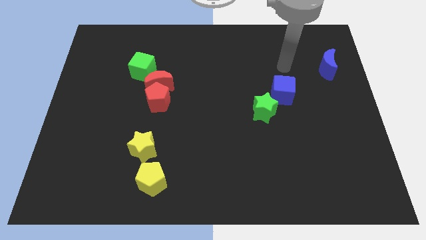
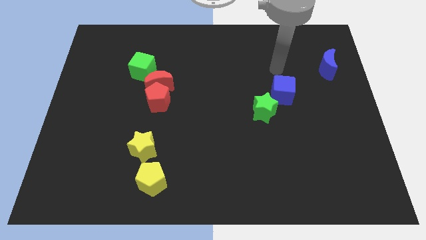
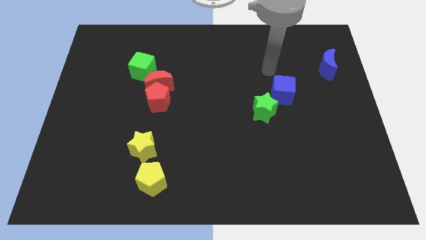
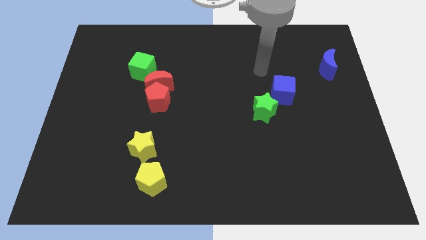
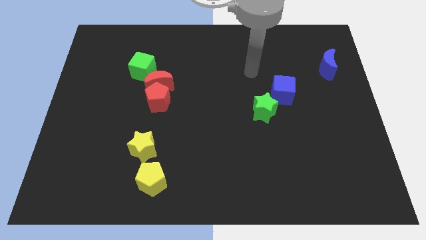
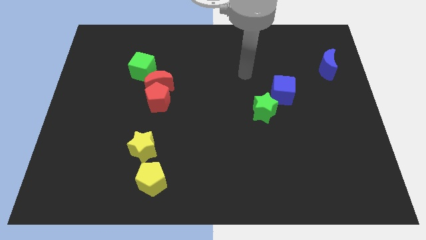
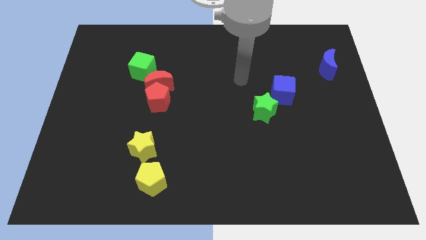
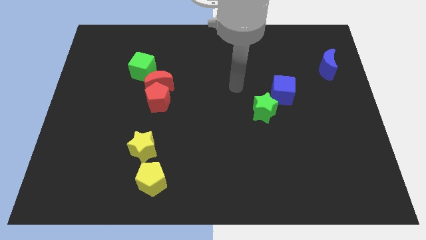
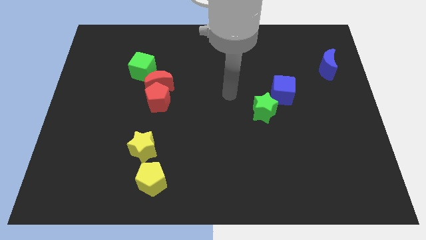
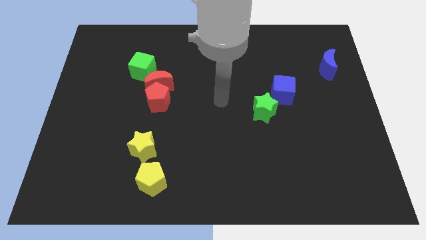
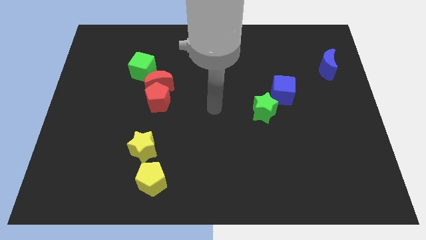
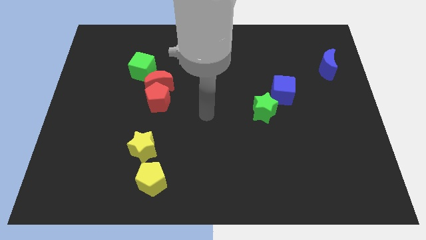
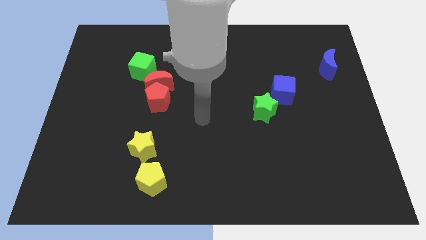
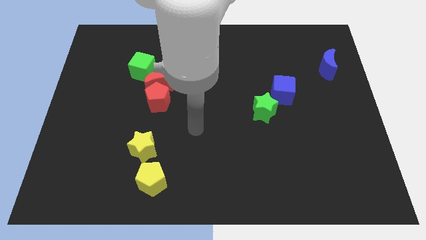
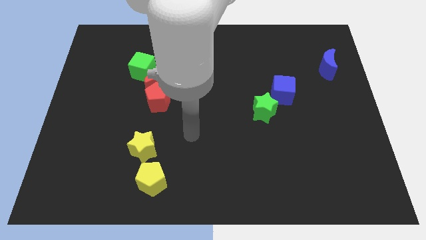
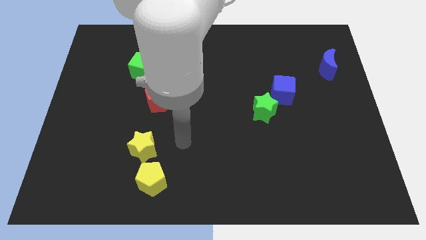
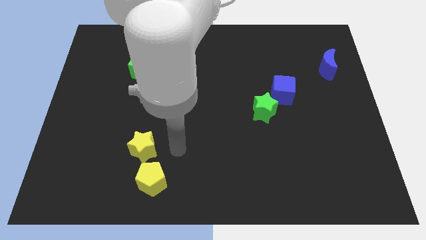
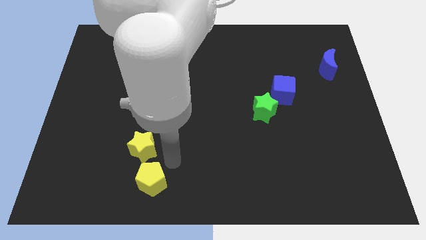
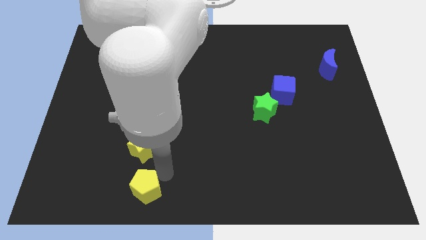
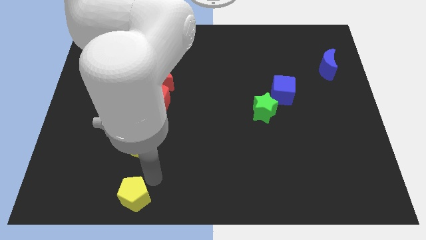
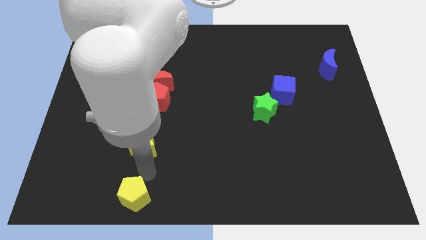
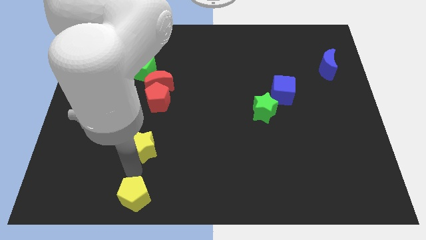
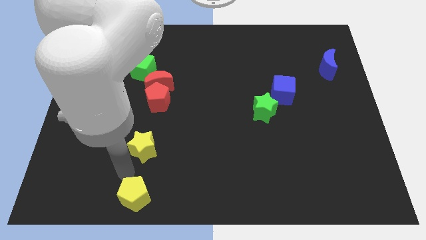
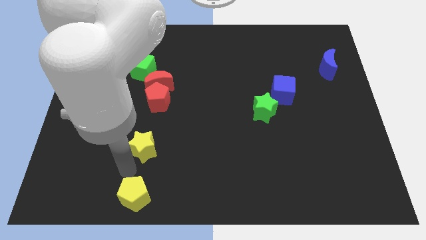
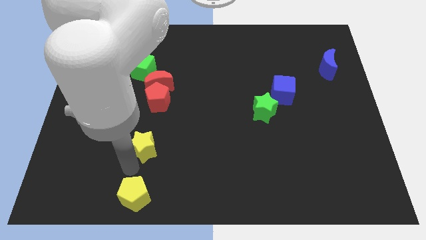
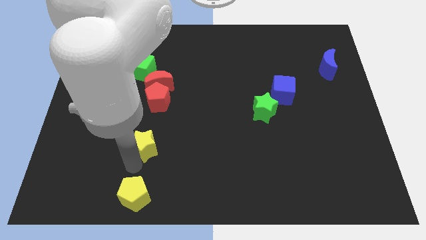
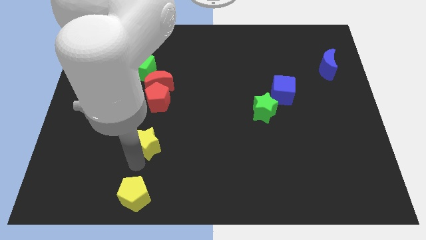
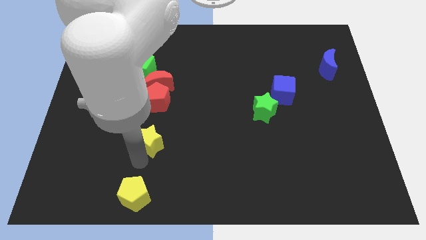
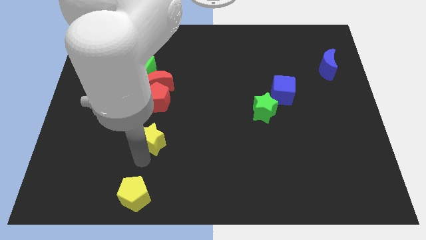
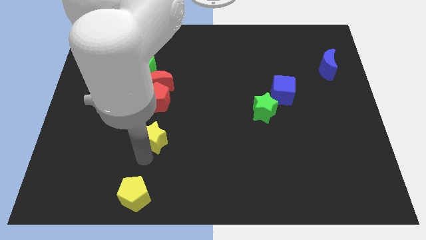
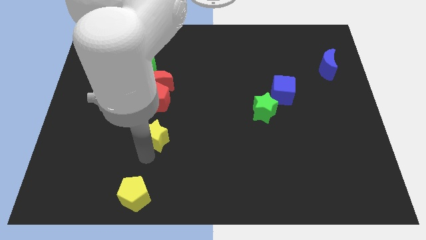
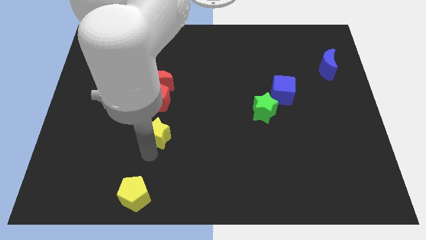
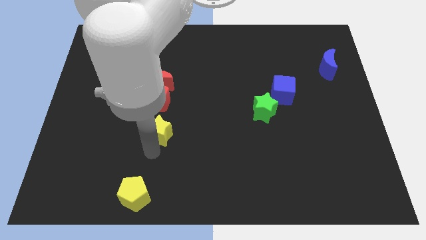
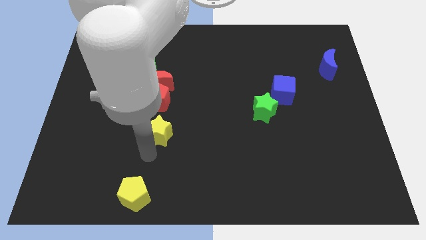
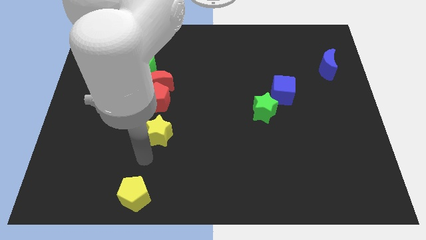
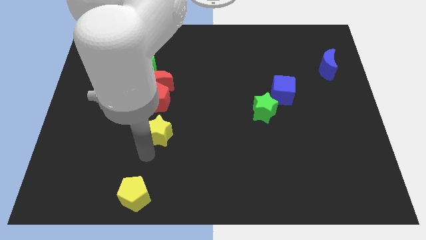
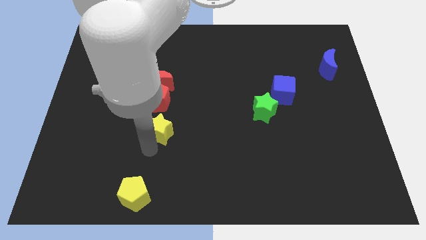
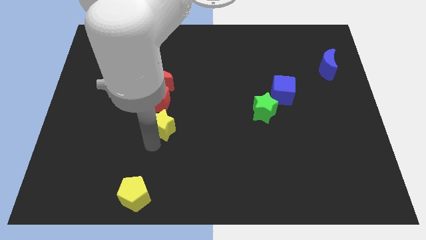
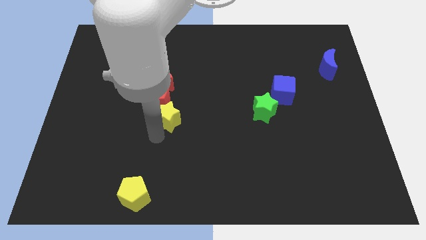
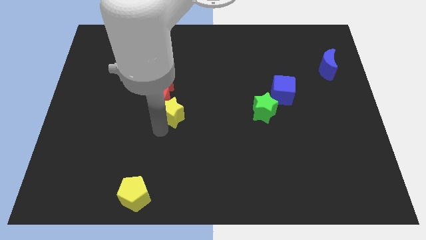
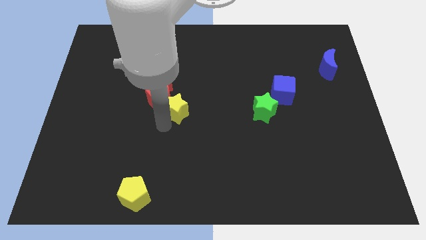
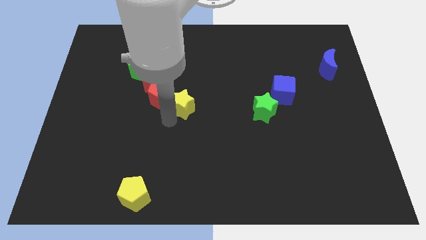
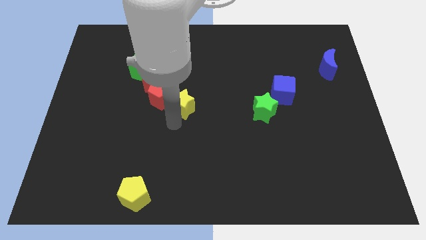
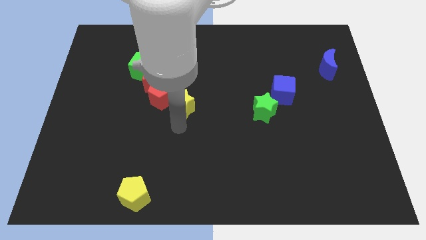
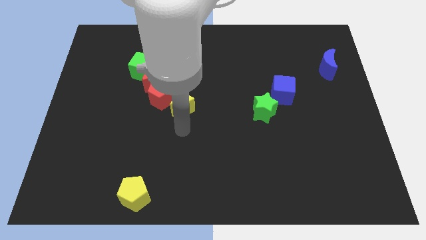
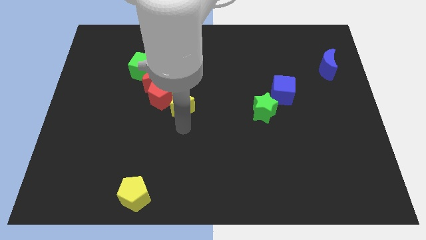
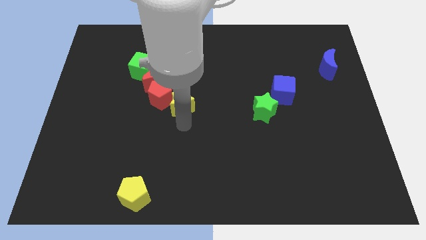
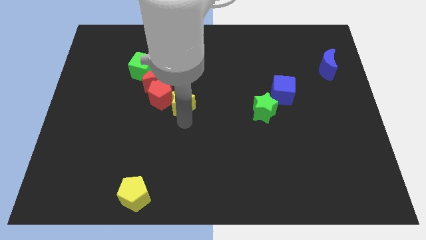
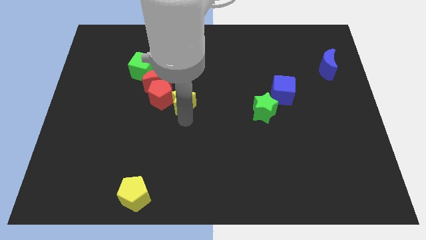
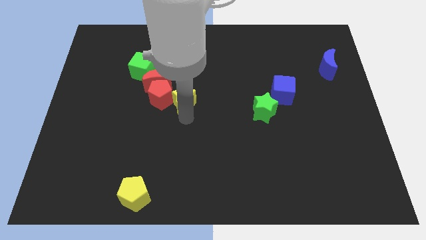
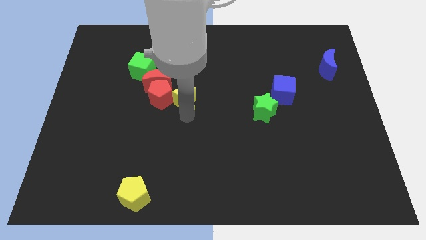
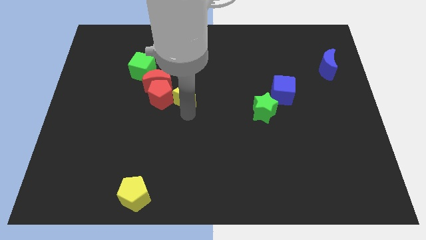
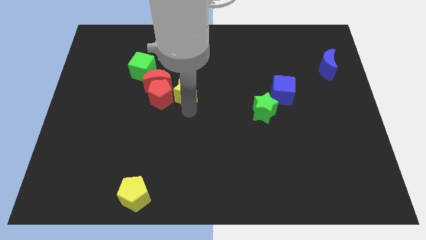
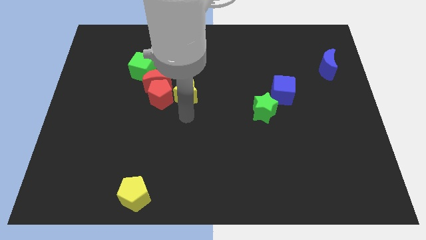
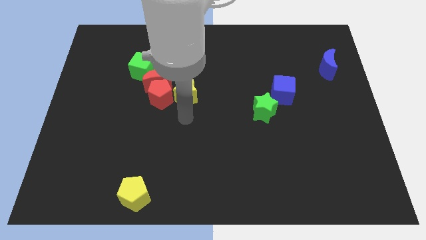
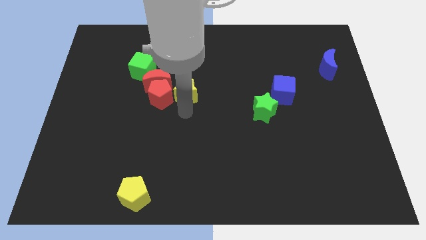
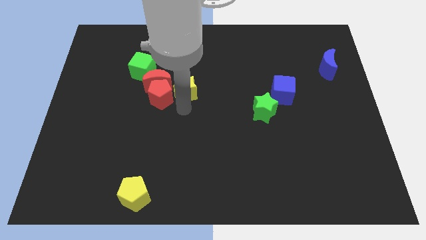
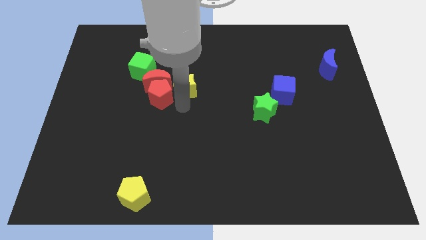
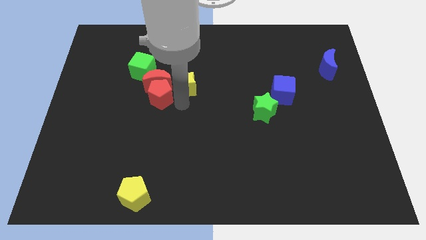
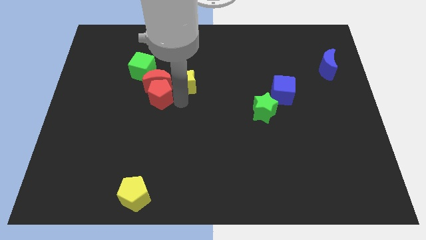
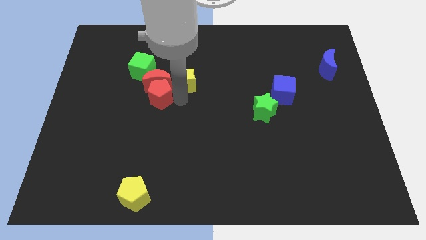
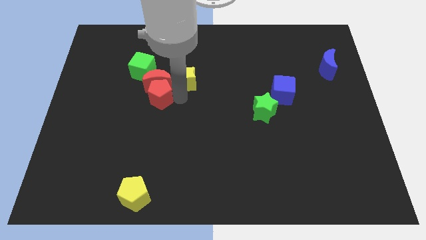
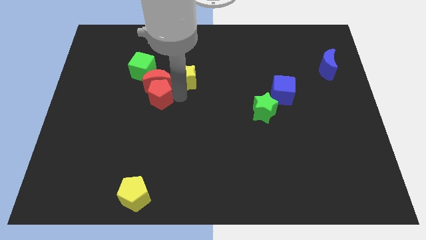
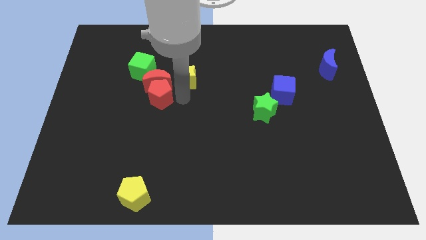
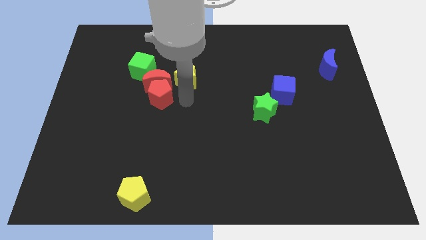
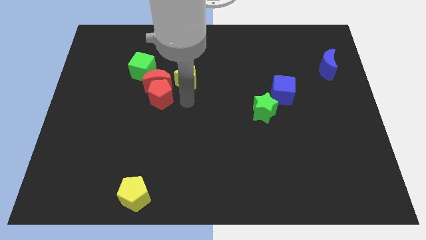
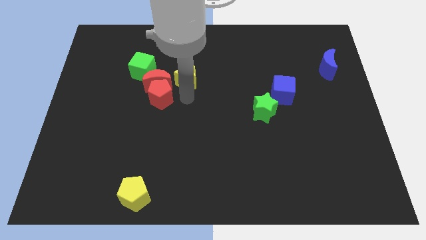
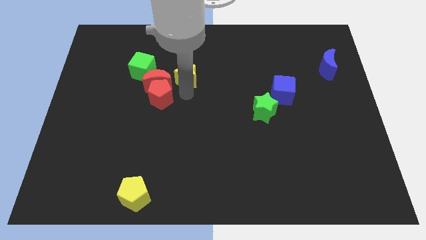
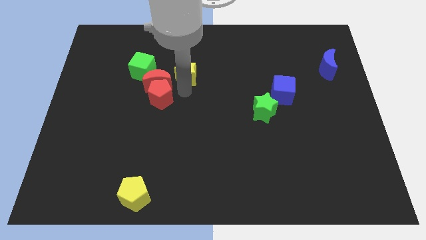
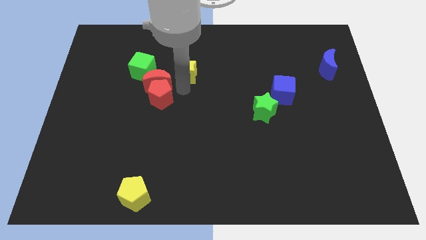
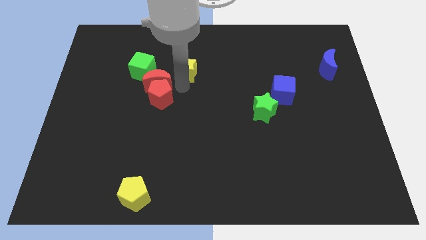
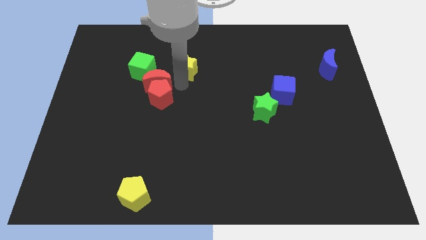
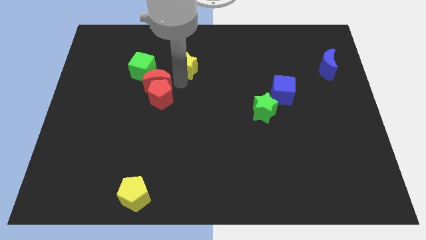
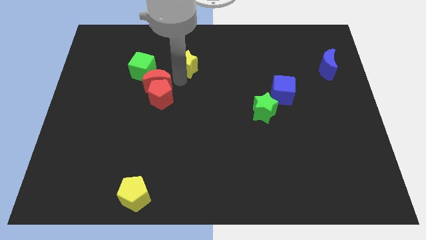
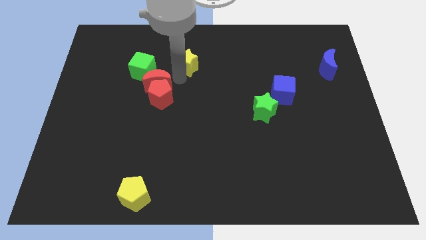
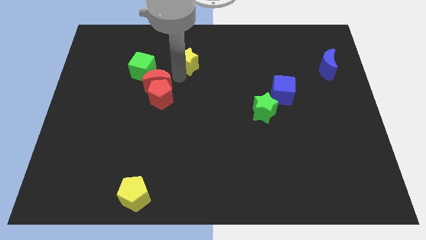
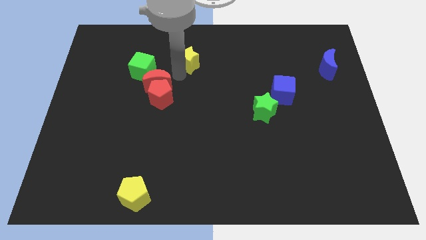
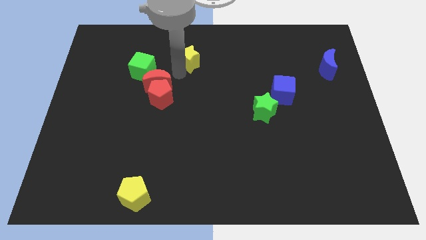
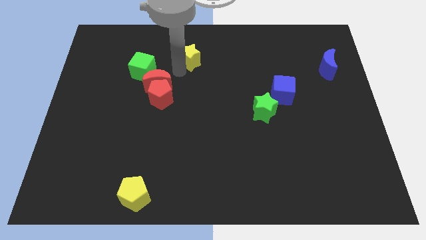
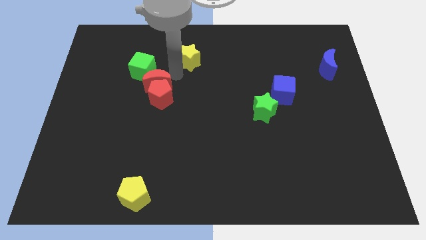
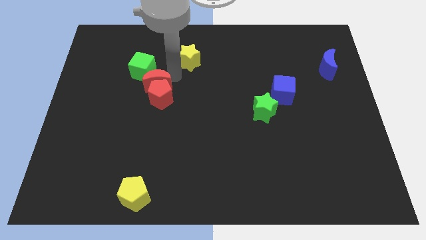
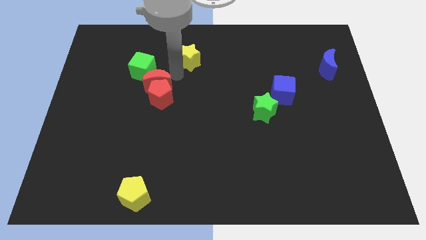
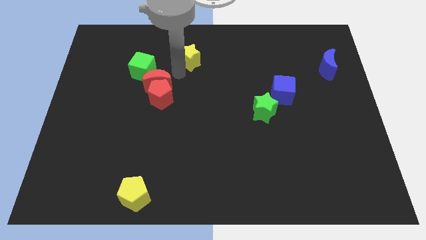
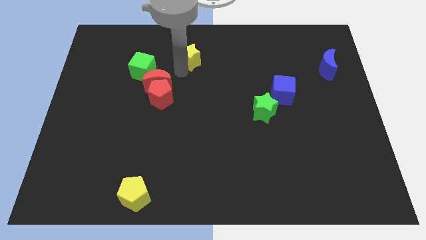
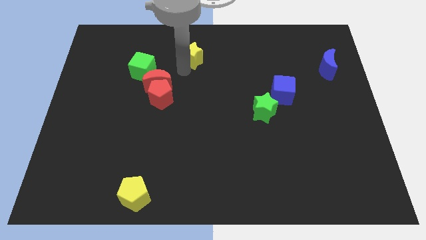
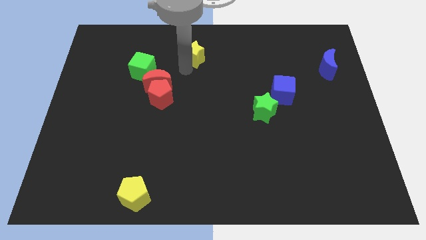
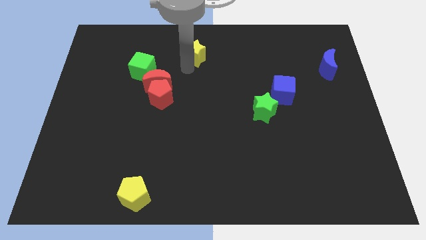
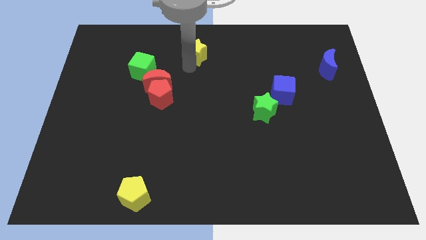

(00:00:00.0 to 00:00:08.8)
put the yellow star to the top
